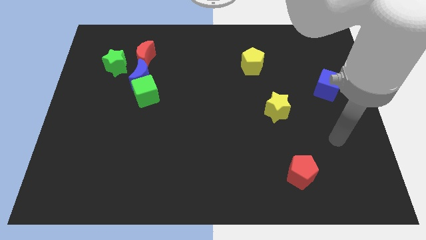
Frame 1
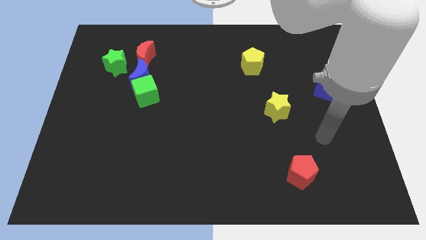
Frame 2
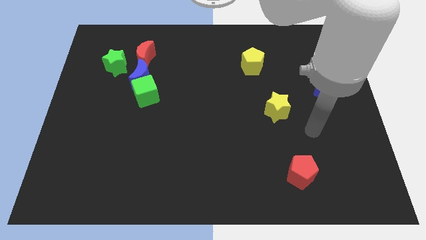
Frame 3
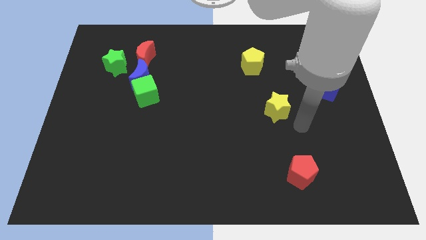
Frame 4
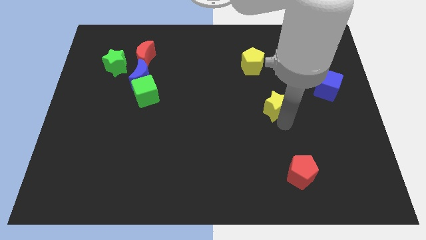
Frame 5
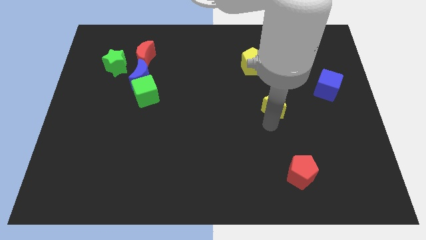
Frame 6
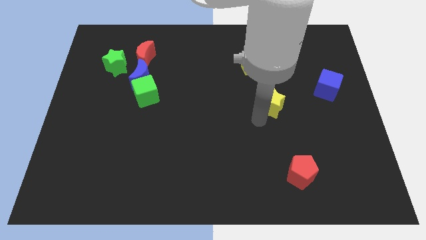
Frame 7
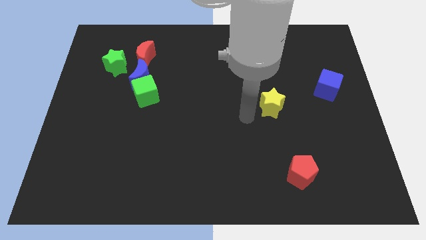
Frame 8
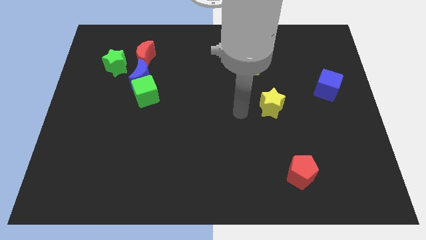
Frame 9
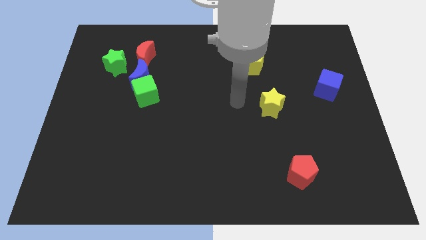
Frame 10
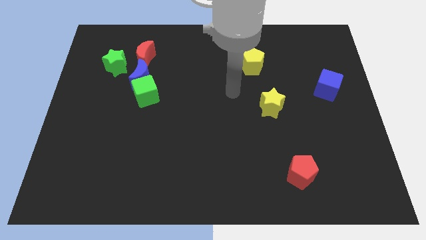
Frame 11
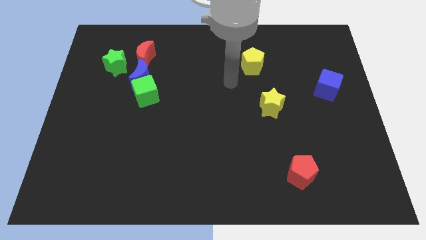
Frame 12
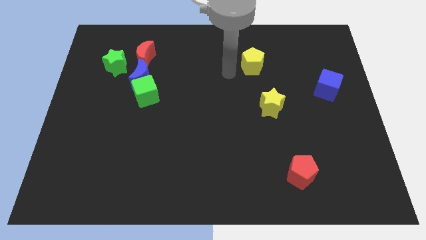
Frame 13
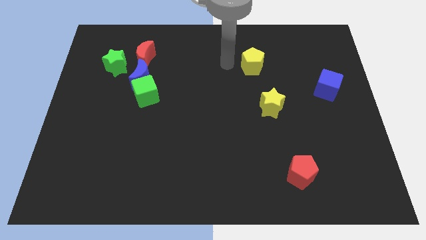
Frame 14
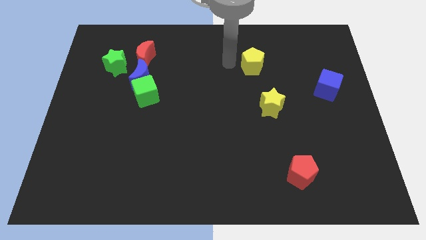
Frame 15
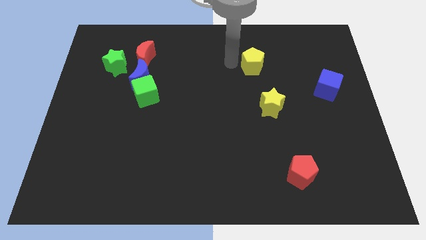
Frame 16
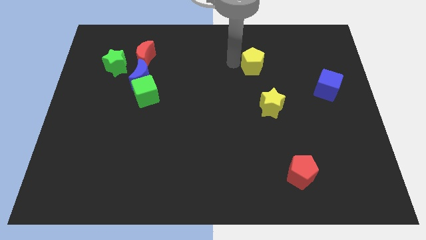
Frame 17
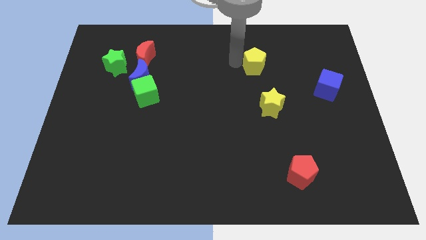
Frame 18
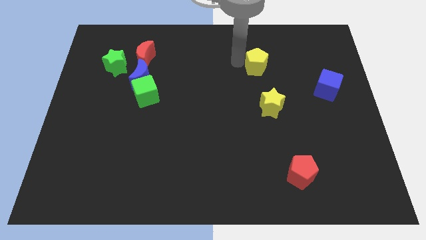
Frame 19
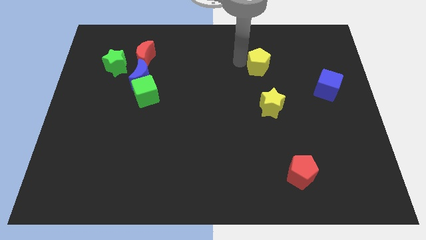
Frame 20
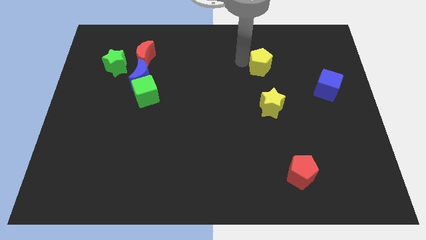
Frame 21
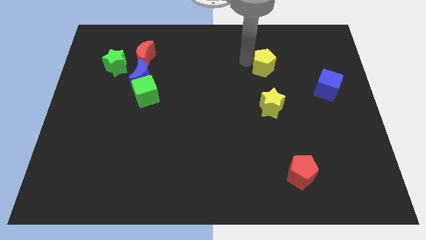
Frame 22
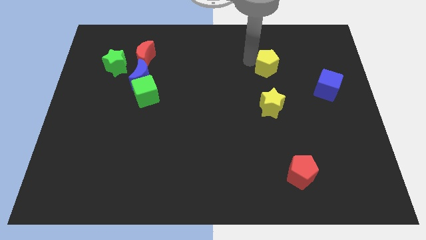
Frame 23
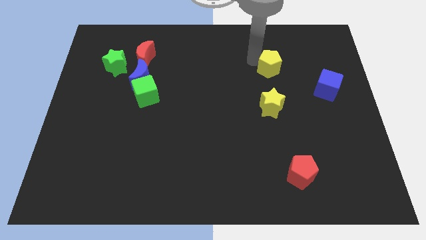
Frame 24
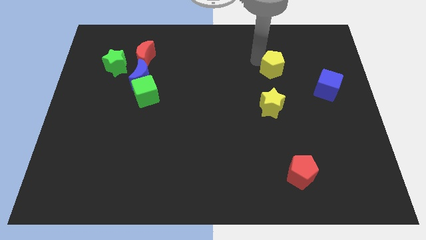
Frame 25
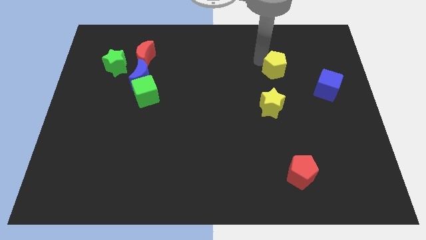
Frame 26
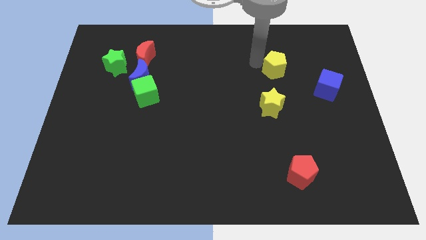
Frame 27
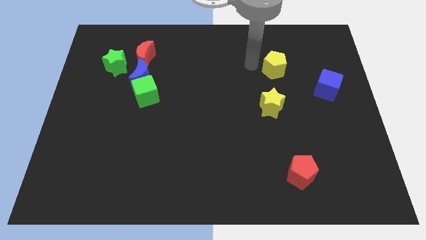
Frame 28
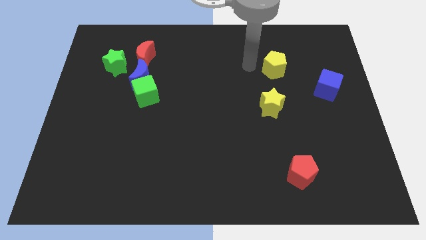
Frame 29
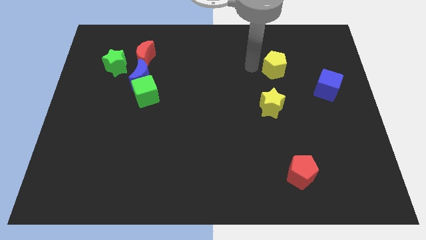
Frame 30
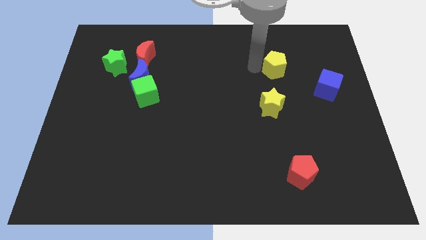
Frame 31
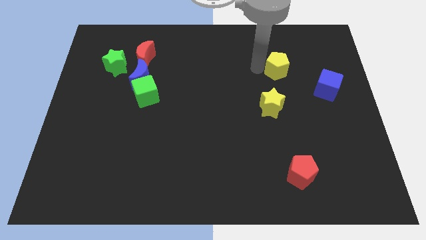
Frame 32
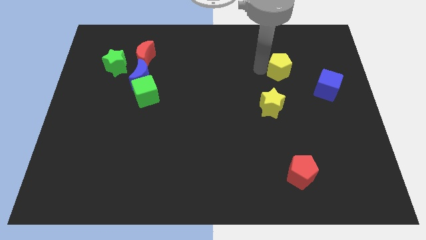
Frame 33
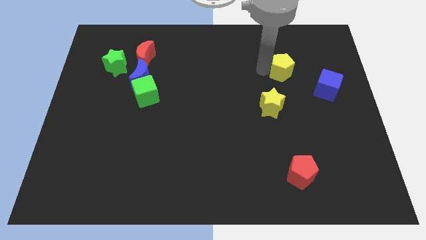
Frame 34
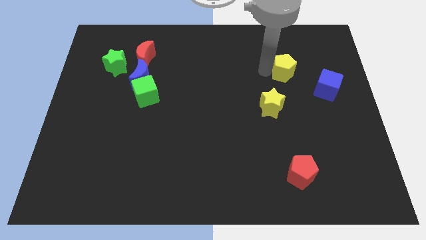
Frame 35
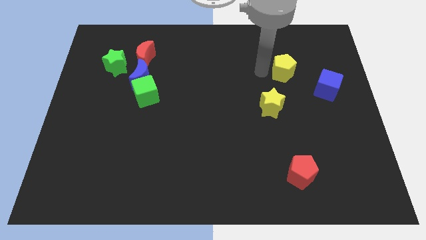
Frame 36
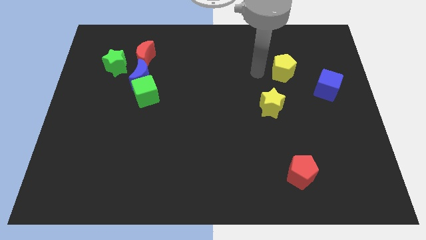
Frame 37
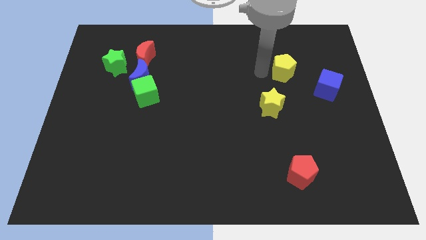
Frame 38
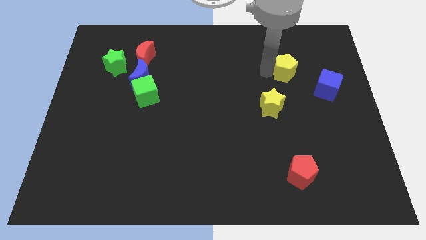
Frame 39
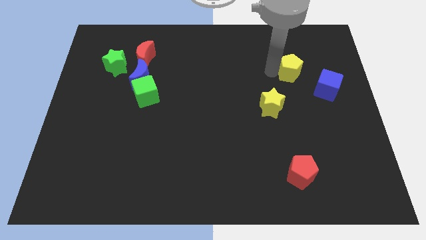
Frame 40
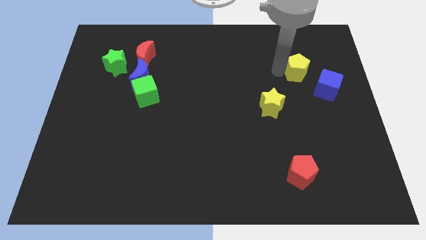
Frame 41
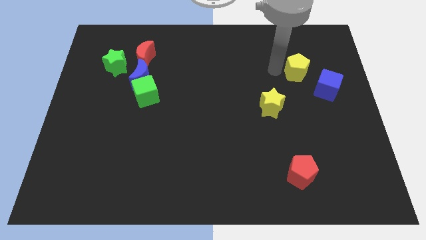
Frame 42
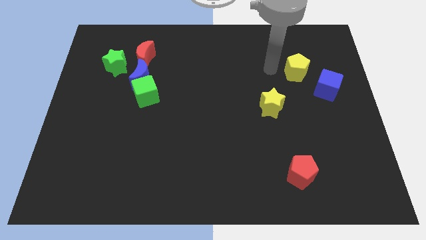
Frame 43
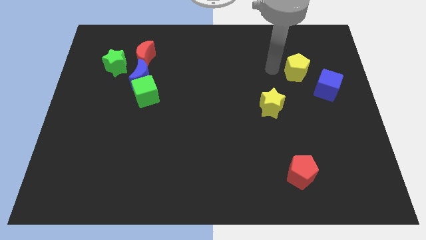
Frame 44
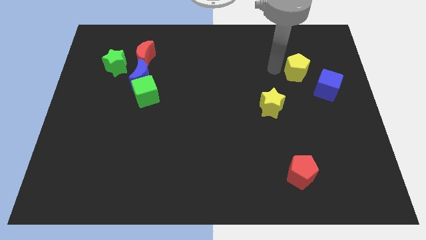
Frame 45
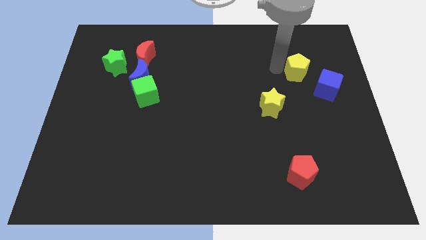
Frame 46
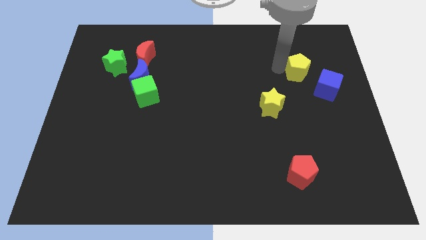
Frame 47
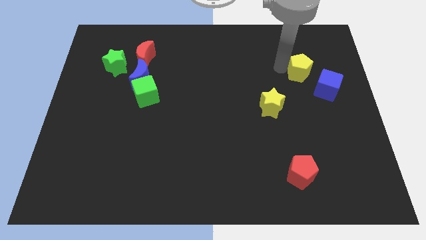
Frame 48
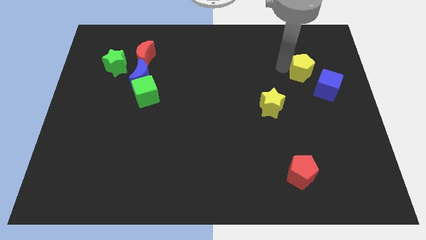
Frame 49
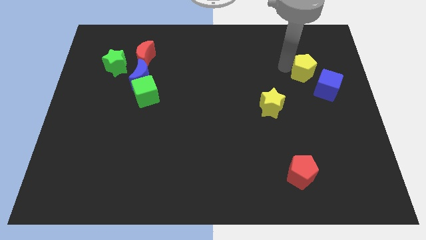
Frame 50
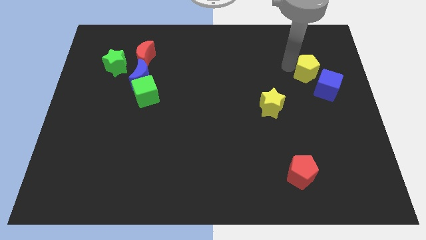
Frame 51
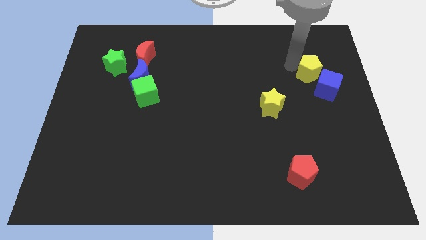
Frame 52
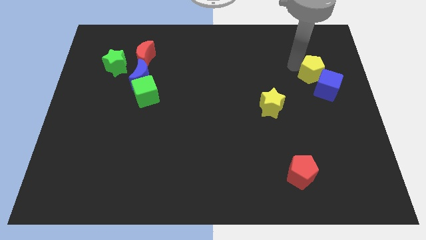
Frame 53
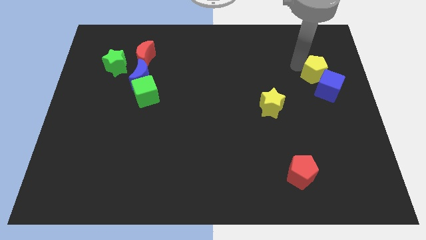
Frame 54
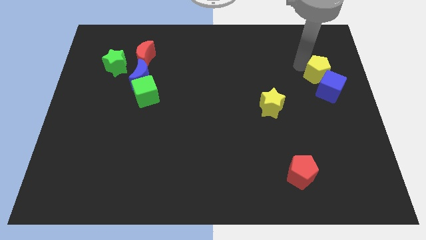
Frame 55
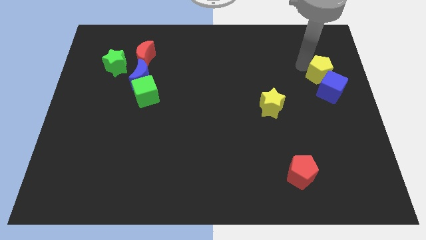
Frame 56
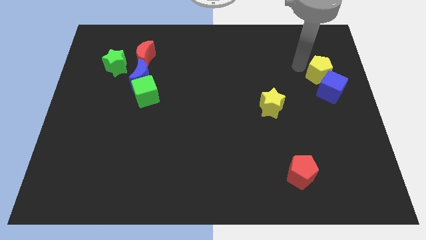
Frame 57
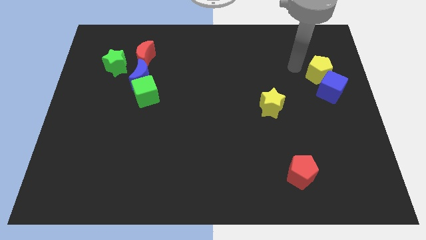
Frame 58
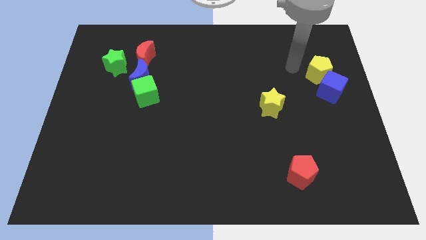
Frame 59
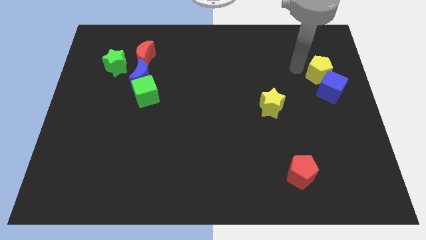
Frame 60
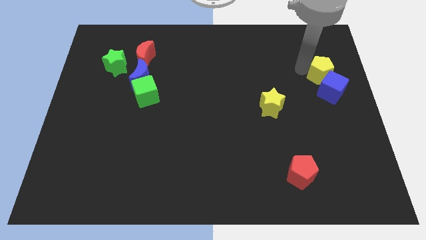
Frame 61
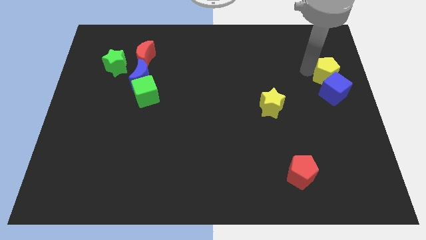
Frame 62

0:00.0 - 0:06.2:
slide the yellow pentagon to the center right
